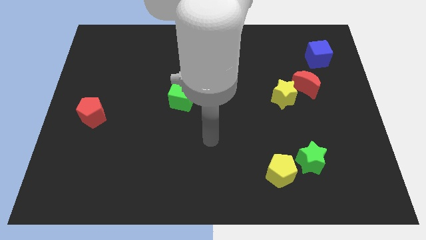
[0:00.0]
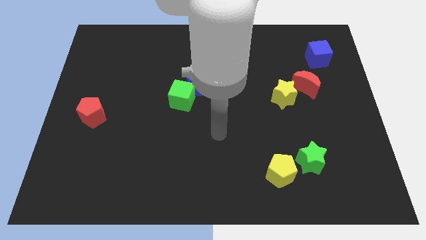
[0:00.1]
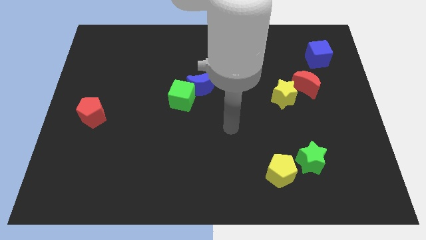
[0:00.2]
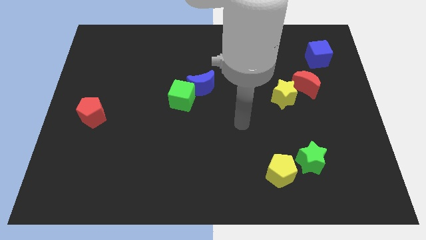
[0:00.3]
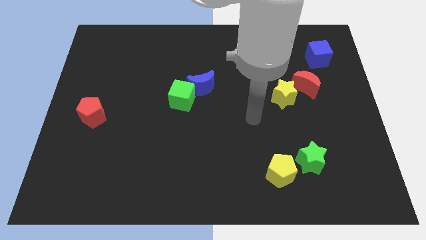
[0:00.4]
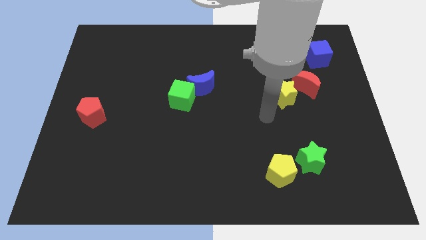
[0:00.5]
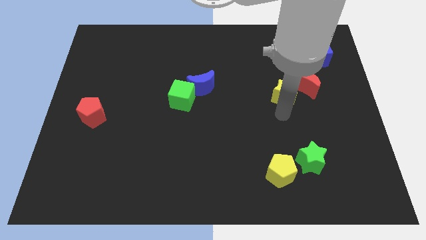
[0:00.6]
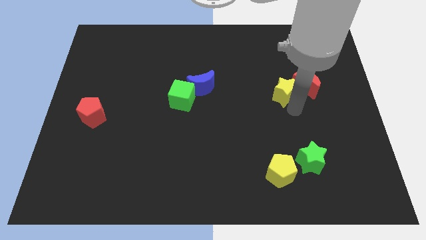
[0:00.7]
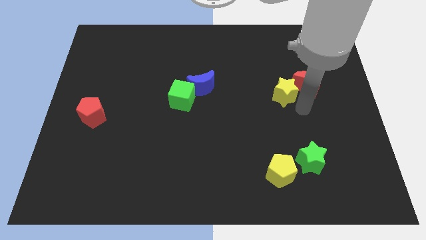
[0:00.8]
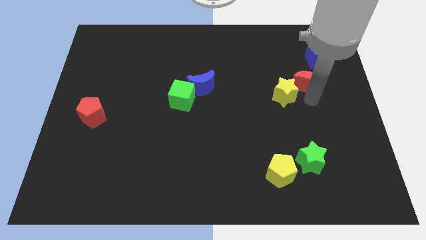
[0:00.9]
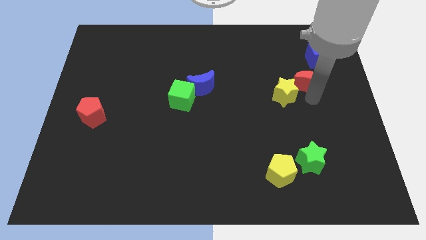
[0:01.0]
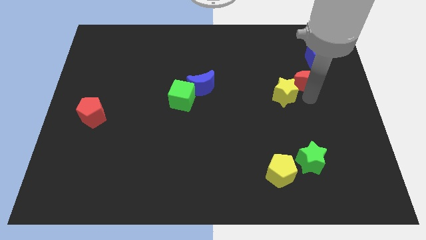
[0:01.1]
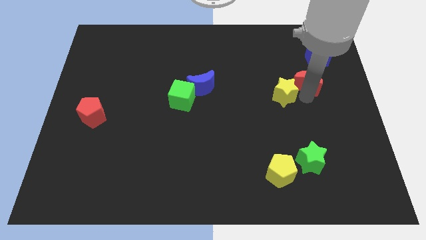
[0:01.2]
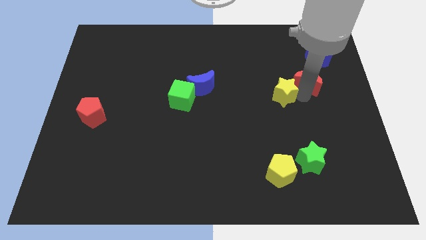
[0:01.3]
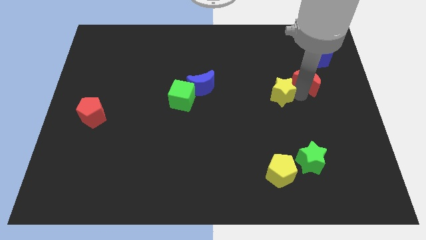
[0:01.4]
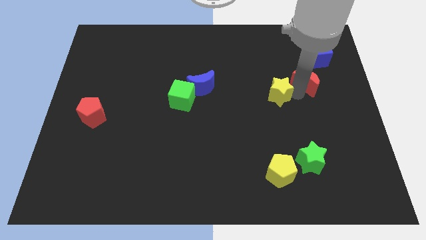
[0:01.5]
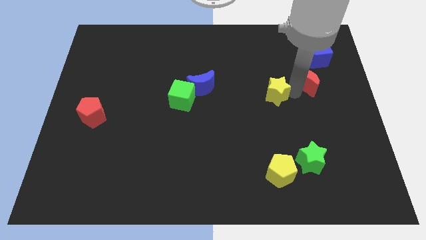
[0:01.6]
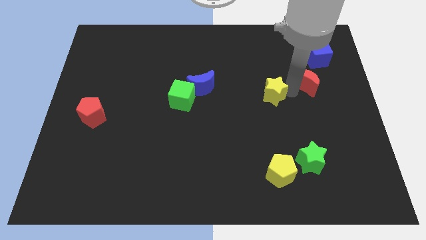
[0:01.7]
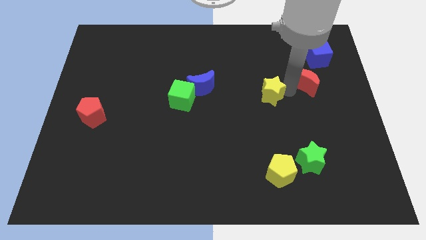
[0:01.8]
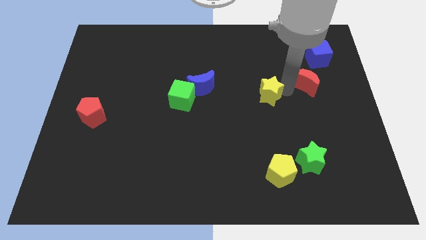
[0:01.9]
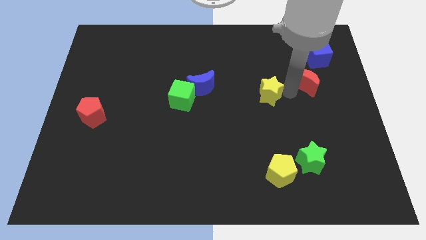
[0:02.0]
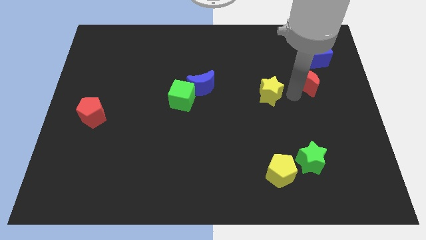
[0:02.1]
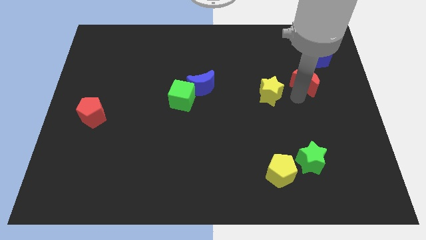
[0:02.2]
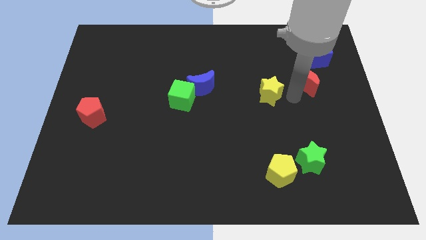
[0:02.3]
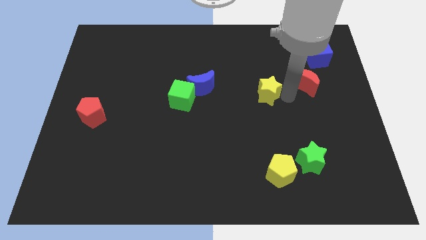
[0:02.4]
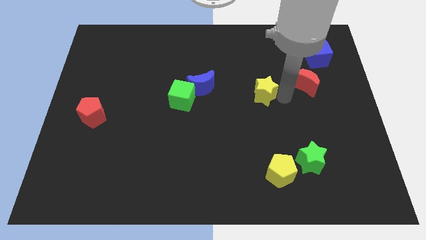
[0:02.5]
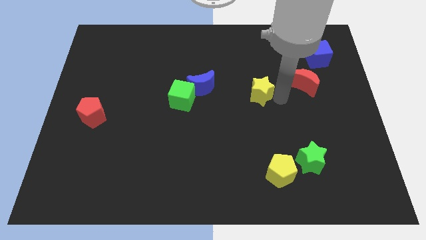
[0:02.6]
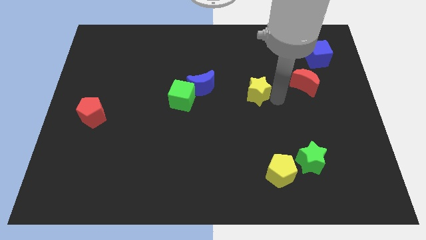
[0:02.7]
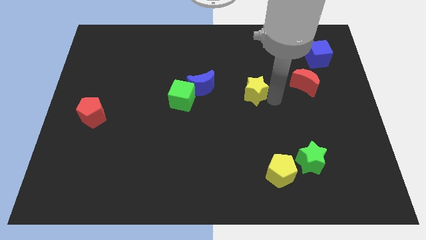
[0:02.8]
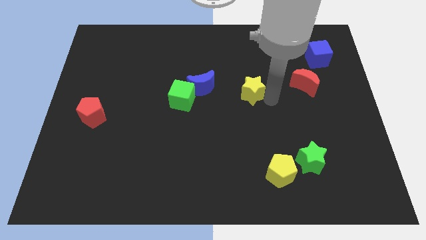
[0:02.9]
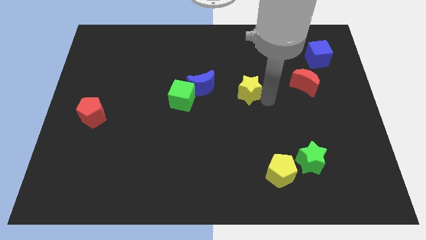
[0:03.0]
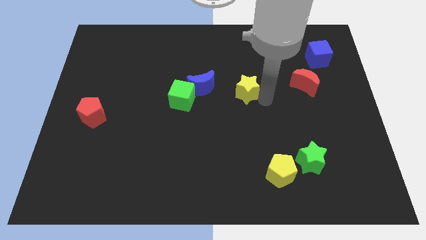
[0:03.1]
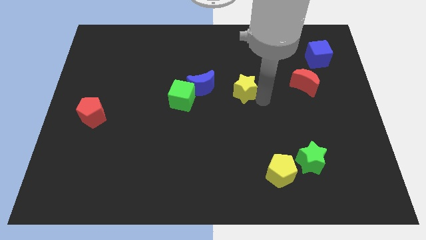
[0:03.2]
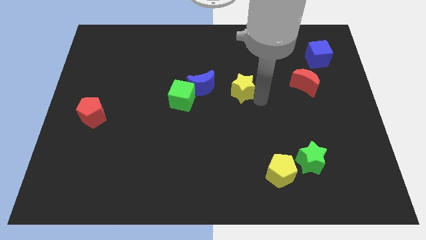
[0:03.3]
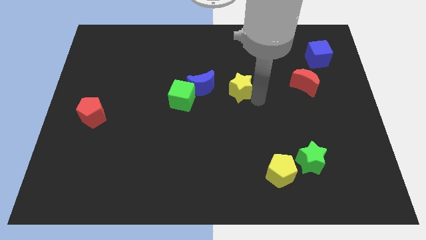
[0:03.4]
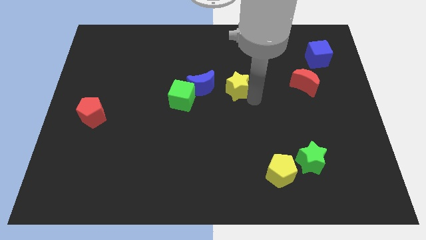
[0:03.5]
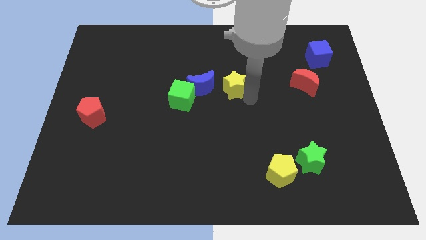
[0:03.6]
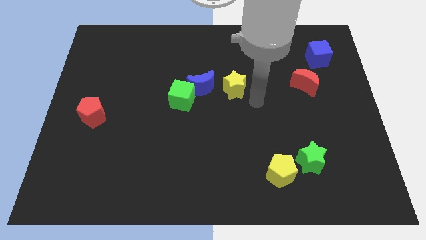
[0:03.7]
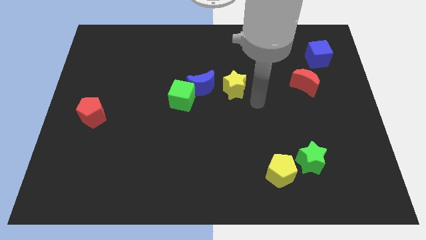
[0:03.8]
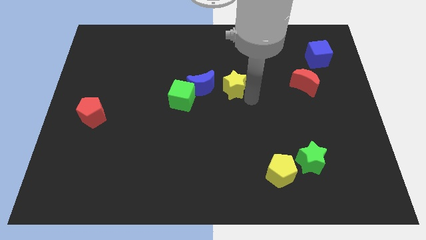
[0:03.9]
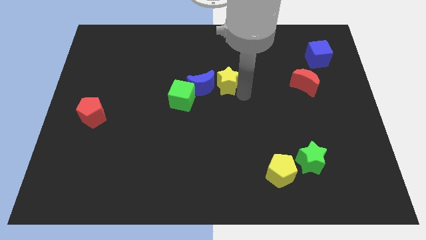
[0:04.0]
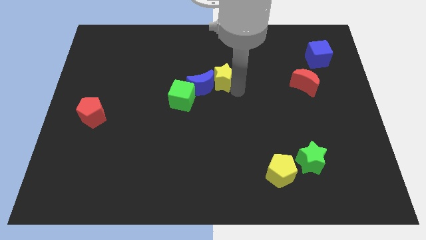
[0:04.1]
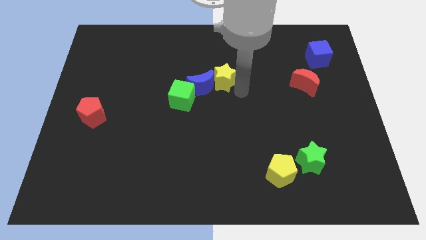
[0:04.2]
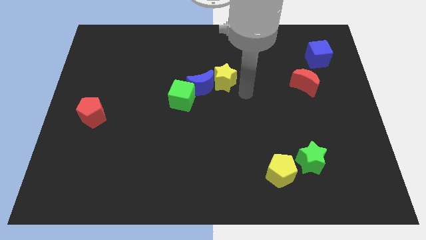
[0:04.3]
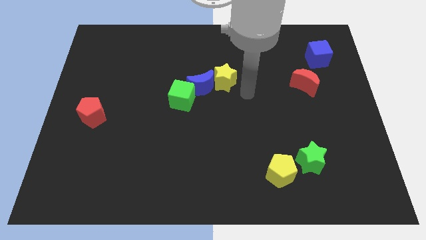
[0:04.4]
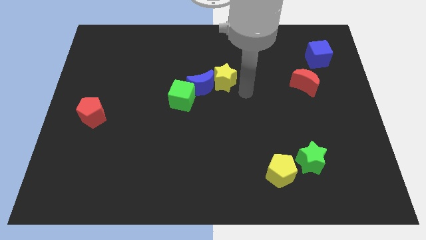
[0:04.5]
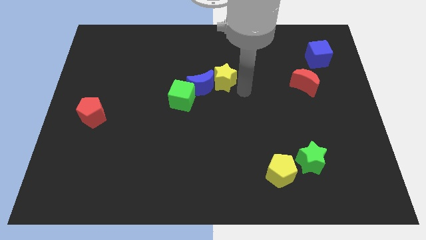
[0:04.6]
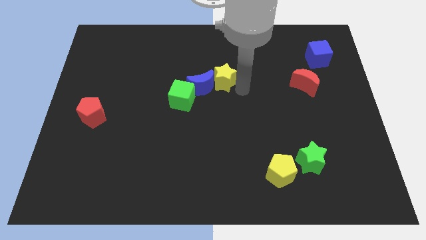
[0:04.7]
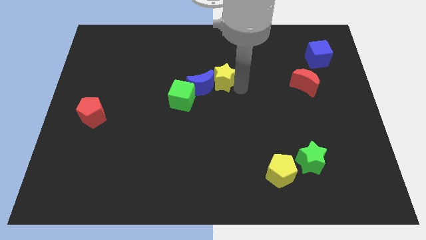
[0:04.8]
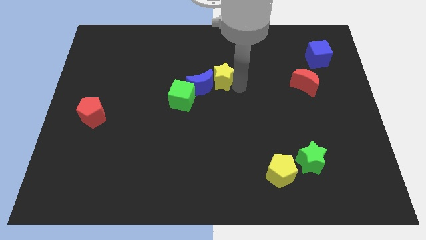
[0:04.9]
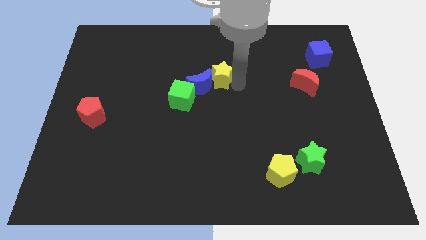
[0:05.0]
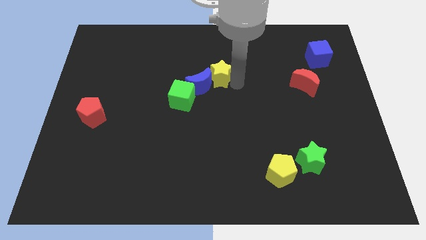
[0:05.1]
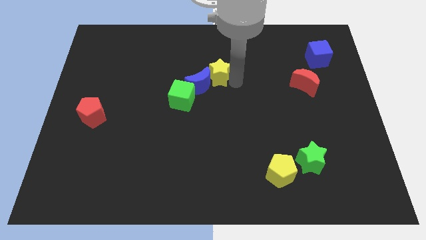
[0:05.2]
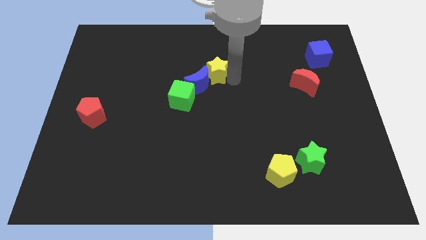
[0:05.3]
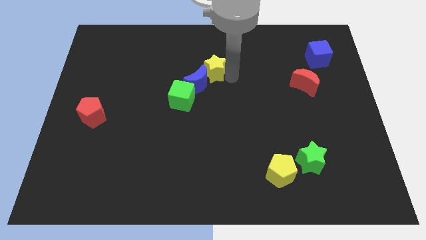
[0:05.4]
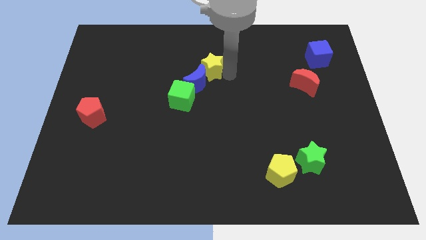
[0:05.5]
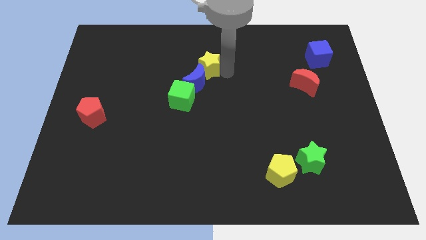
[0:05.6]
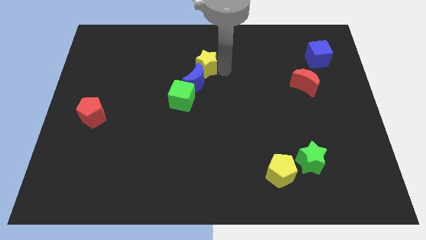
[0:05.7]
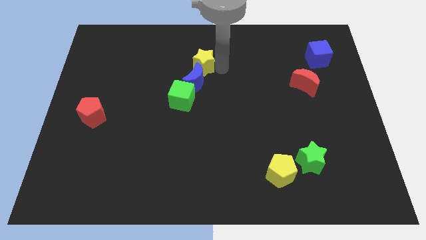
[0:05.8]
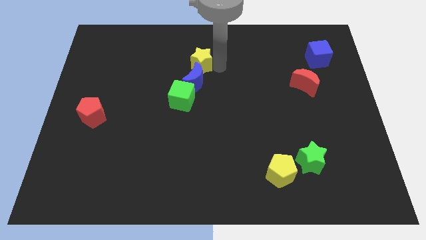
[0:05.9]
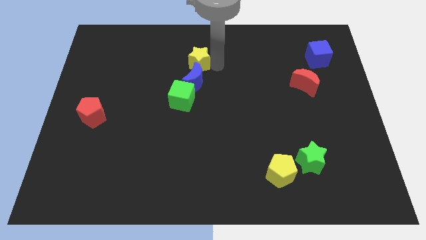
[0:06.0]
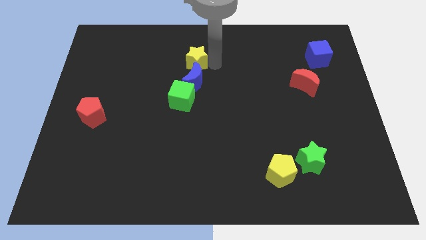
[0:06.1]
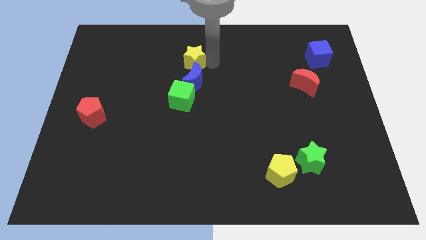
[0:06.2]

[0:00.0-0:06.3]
push the yellow star to the top left of the blue moon
